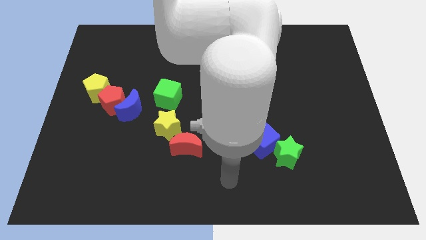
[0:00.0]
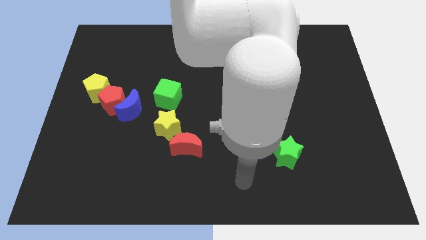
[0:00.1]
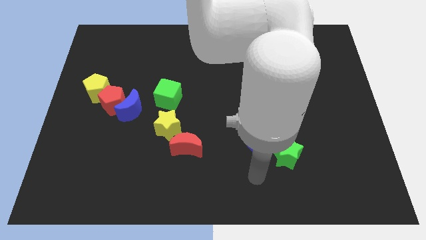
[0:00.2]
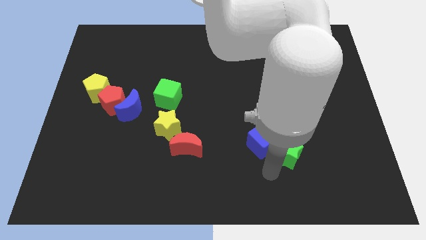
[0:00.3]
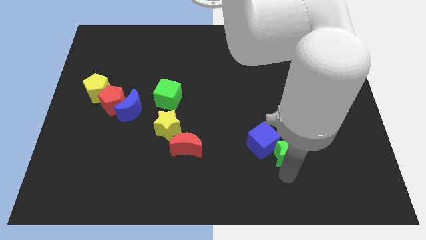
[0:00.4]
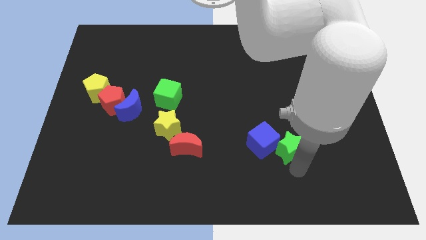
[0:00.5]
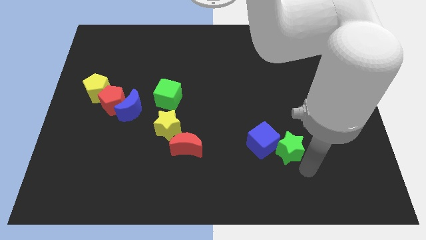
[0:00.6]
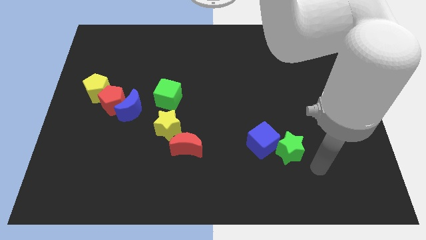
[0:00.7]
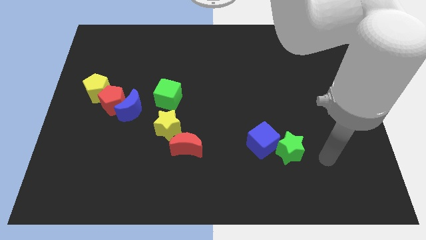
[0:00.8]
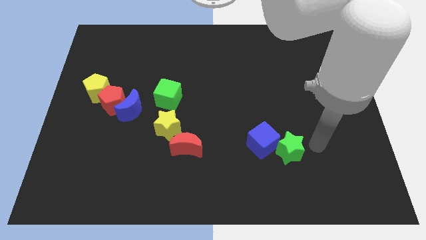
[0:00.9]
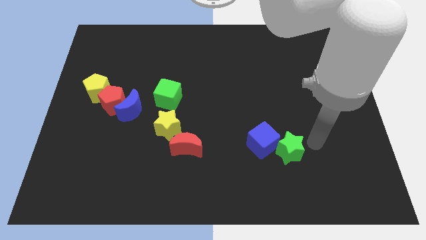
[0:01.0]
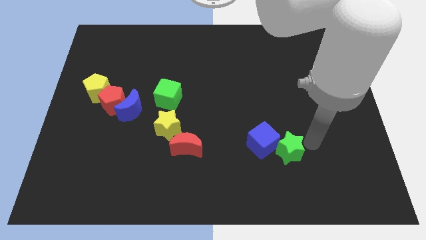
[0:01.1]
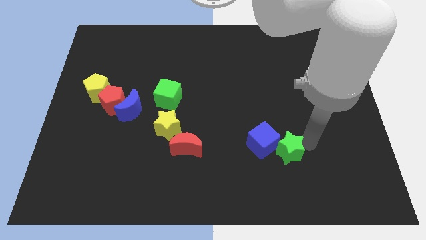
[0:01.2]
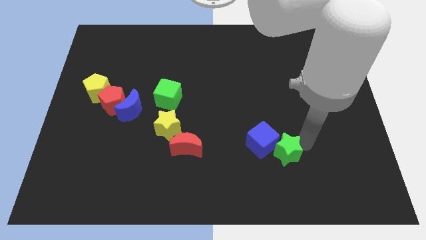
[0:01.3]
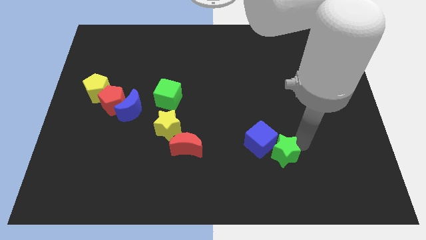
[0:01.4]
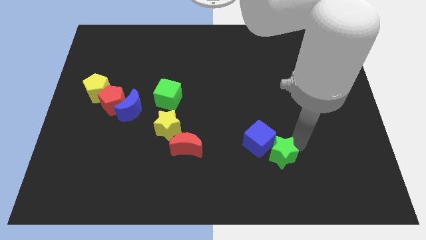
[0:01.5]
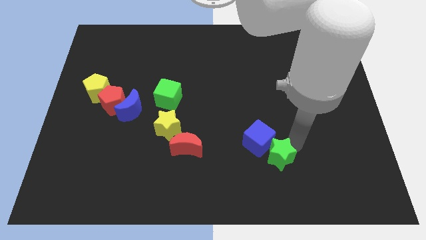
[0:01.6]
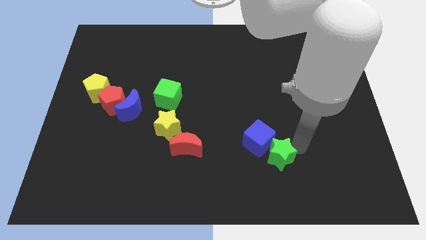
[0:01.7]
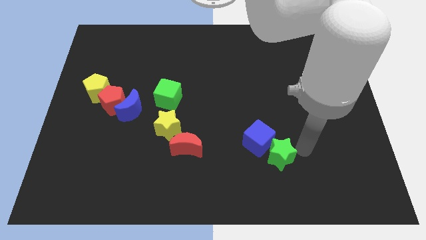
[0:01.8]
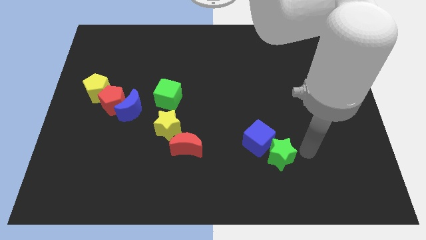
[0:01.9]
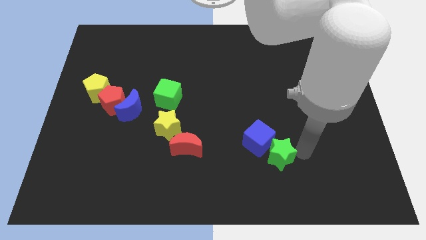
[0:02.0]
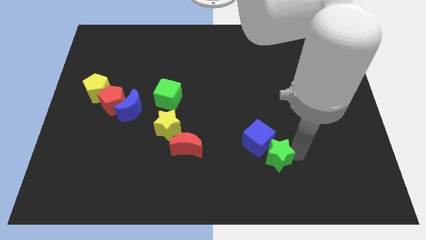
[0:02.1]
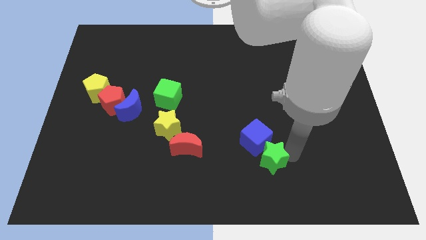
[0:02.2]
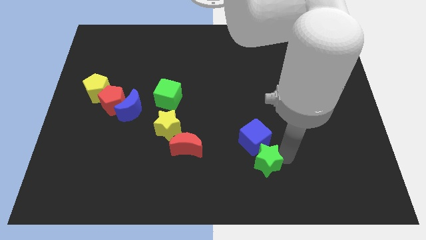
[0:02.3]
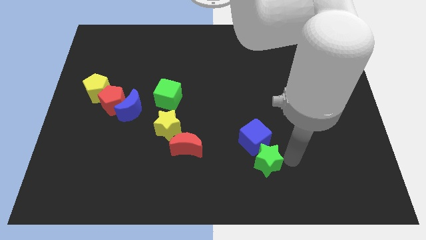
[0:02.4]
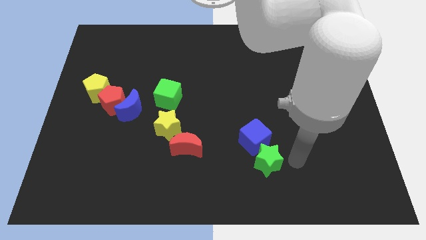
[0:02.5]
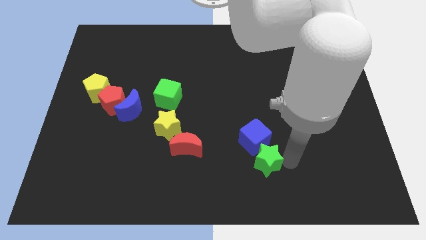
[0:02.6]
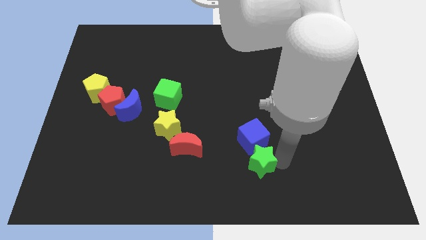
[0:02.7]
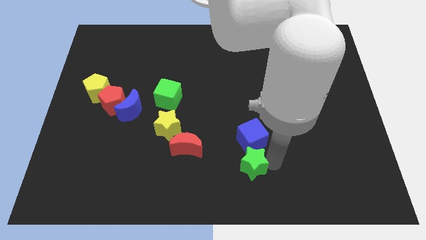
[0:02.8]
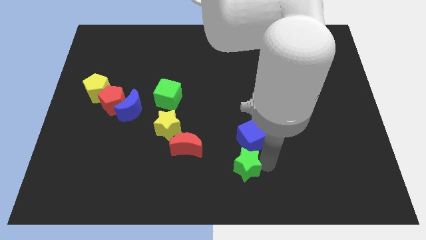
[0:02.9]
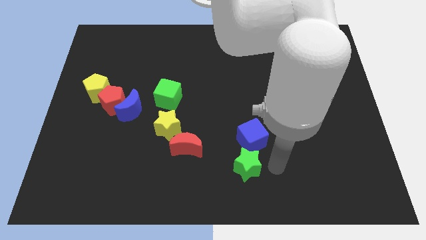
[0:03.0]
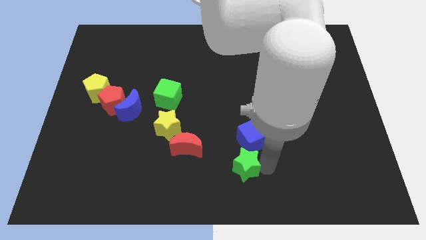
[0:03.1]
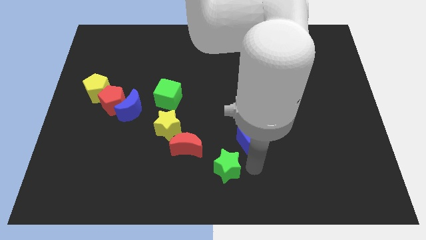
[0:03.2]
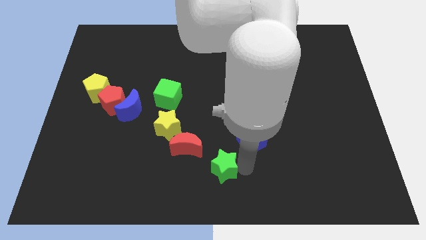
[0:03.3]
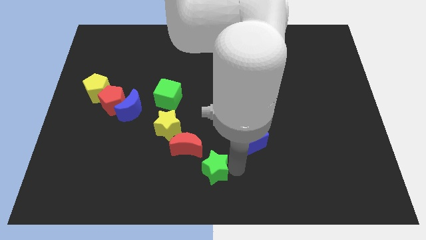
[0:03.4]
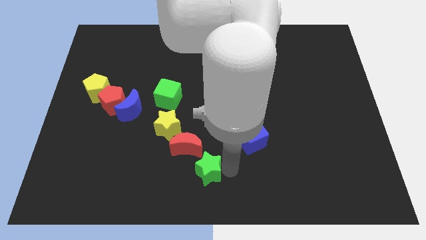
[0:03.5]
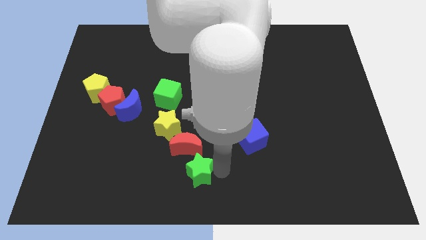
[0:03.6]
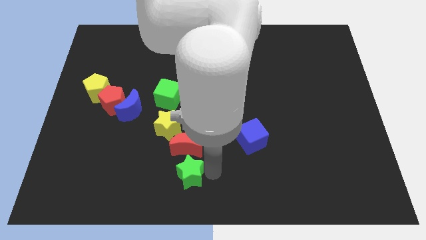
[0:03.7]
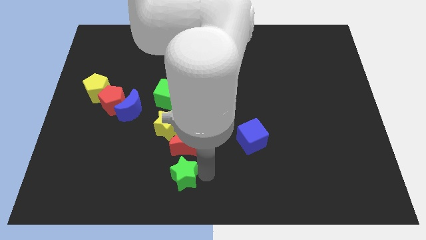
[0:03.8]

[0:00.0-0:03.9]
move the green star left

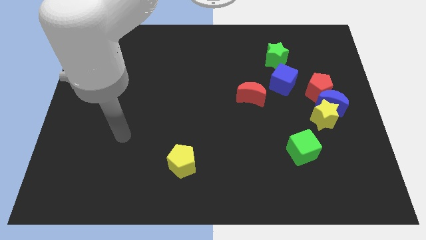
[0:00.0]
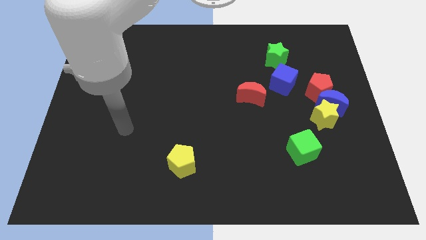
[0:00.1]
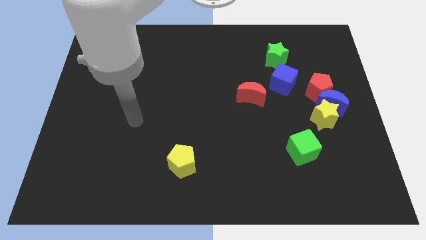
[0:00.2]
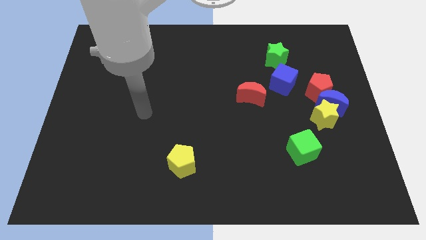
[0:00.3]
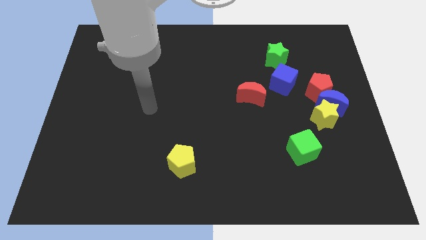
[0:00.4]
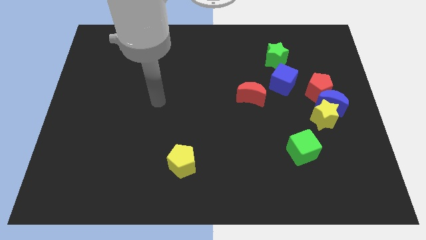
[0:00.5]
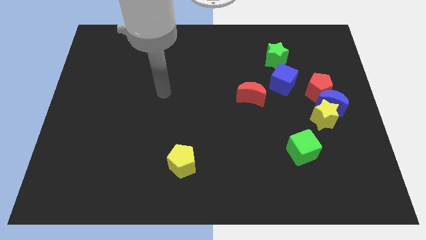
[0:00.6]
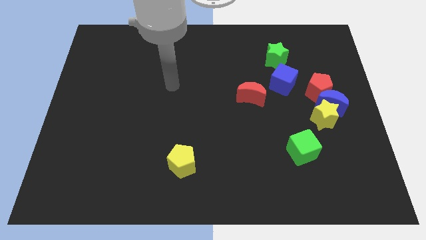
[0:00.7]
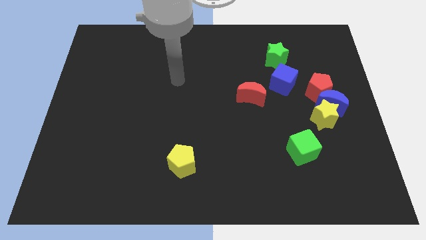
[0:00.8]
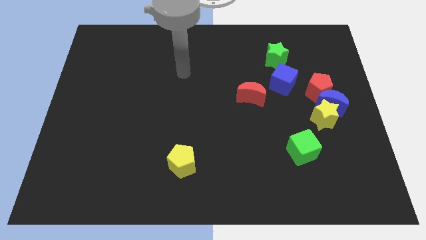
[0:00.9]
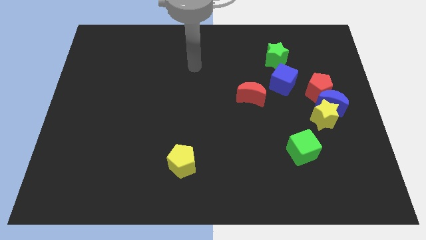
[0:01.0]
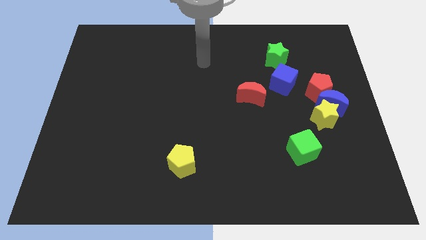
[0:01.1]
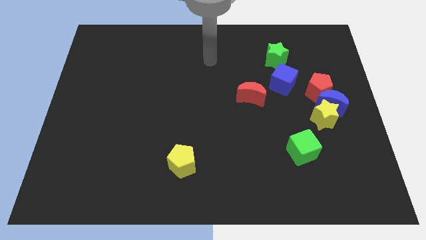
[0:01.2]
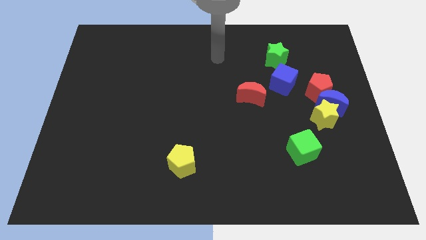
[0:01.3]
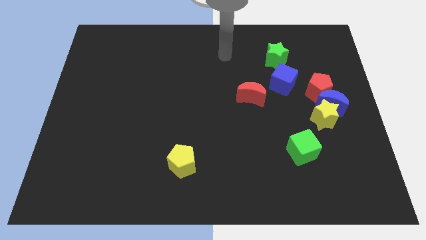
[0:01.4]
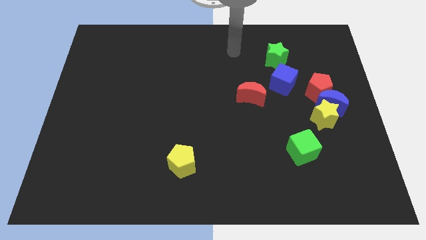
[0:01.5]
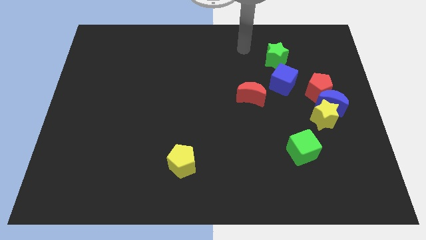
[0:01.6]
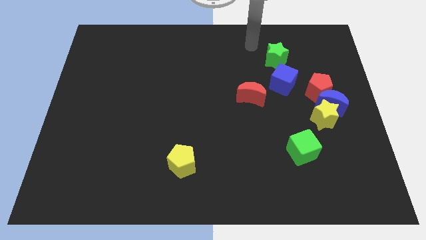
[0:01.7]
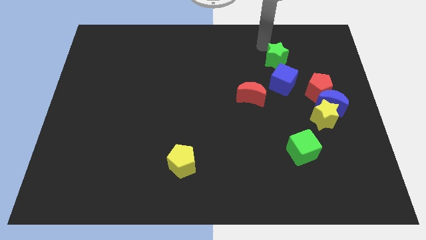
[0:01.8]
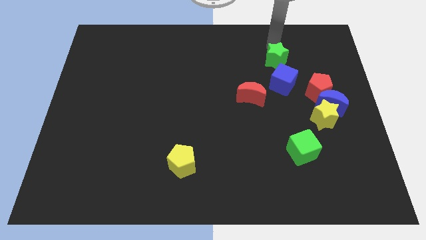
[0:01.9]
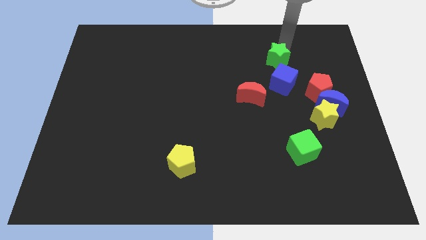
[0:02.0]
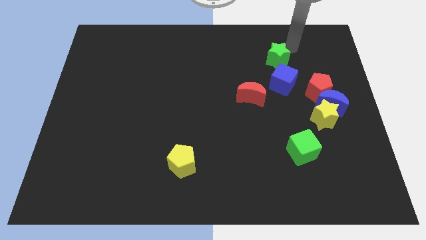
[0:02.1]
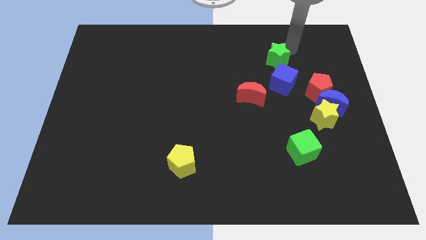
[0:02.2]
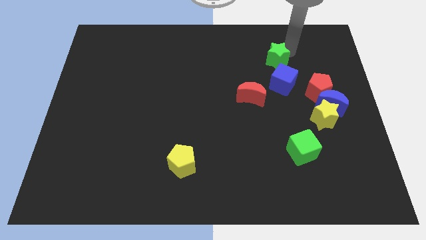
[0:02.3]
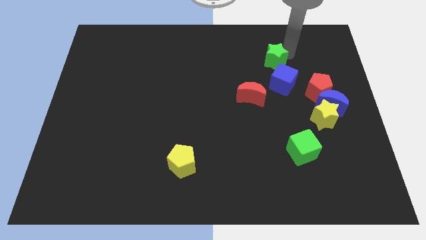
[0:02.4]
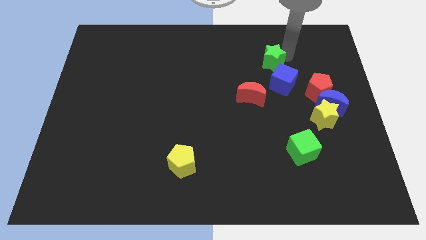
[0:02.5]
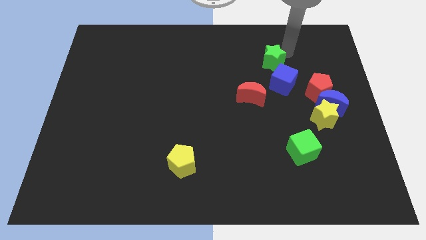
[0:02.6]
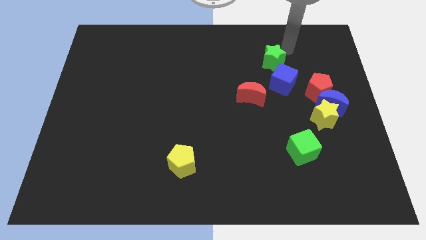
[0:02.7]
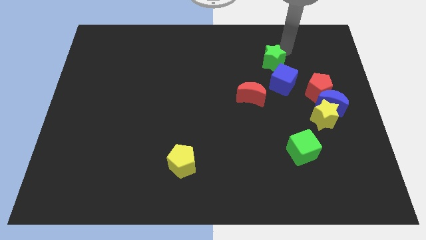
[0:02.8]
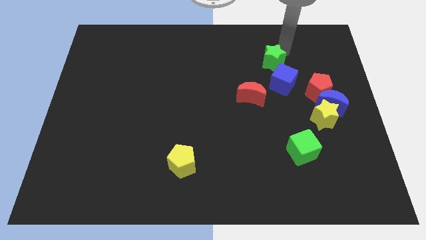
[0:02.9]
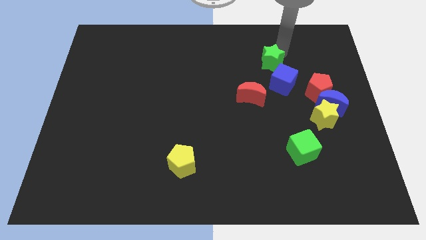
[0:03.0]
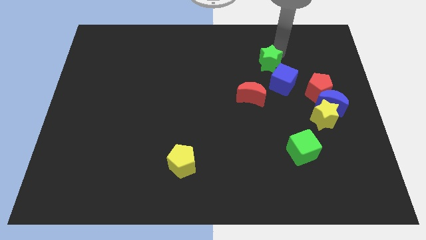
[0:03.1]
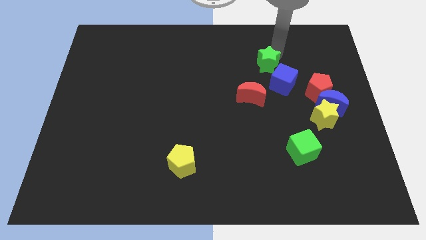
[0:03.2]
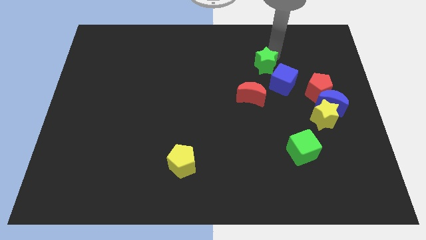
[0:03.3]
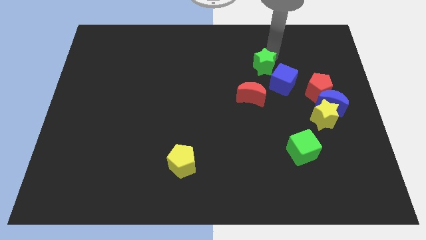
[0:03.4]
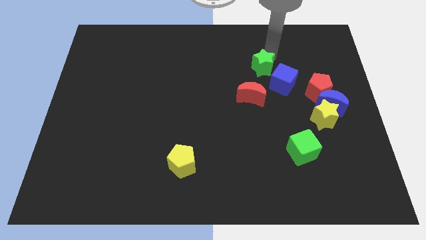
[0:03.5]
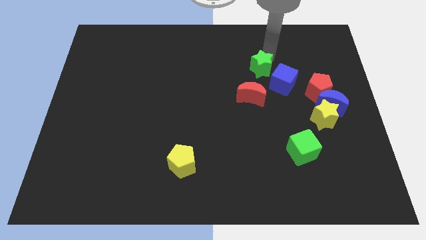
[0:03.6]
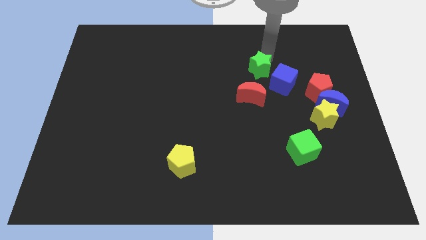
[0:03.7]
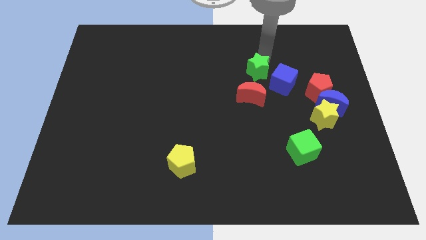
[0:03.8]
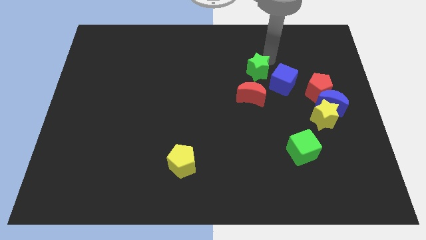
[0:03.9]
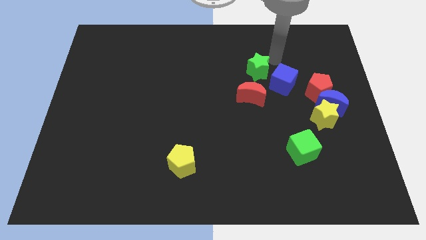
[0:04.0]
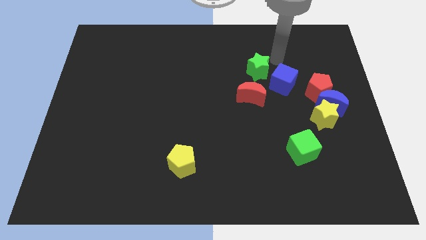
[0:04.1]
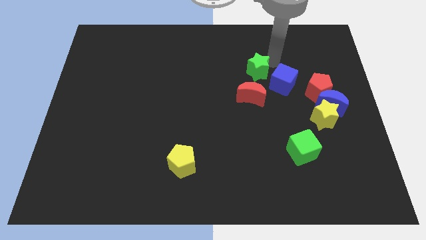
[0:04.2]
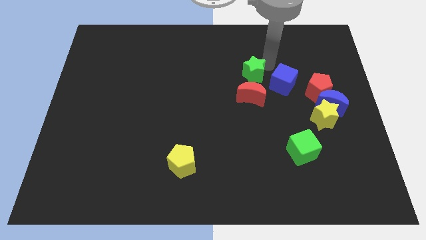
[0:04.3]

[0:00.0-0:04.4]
move the green star somewhat down and to the left diagonally

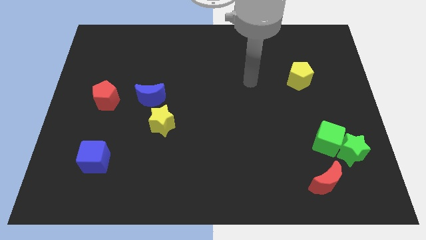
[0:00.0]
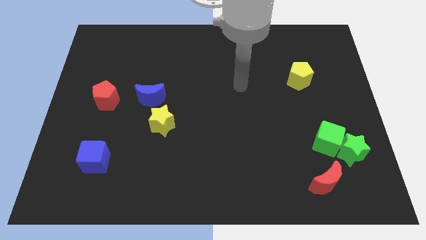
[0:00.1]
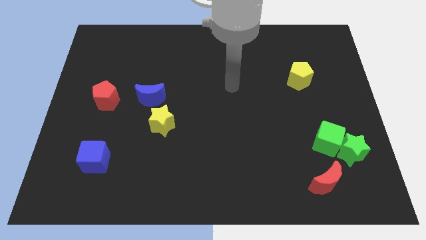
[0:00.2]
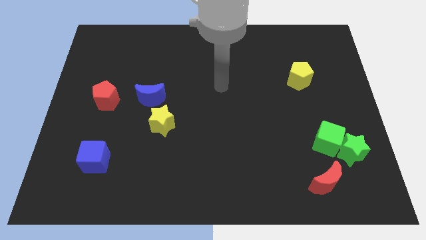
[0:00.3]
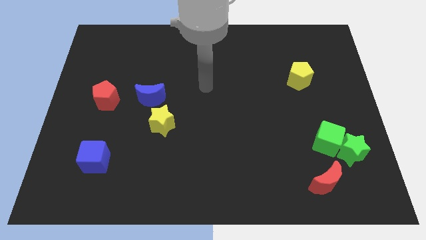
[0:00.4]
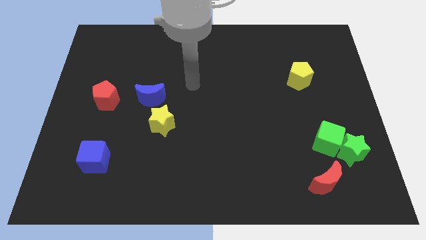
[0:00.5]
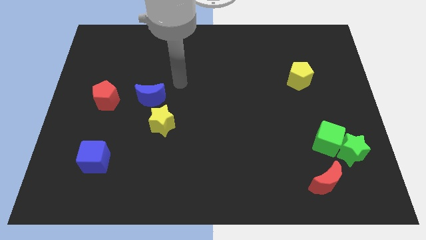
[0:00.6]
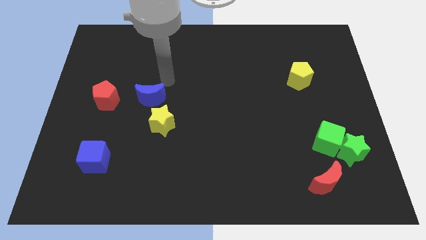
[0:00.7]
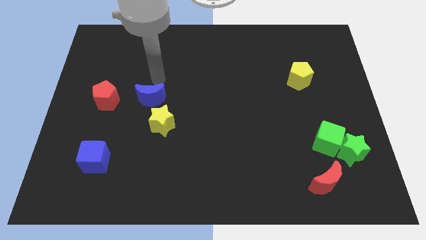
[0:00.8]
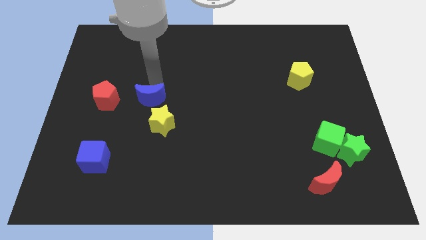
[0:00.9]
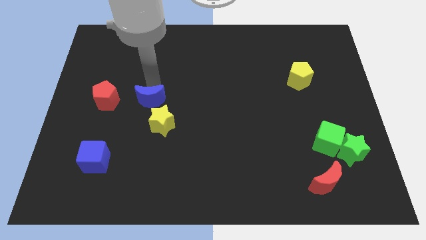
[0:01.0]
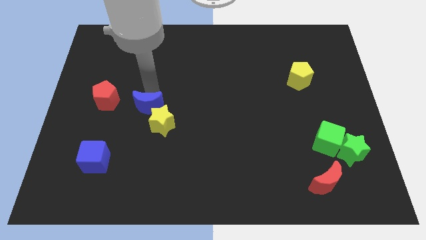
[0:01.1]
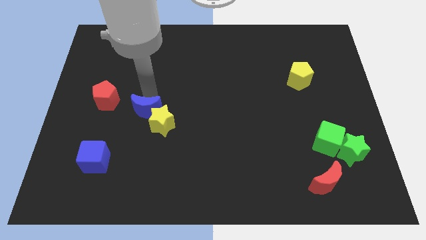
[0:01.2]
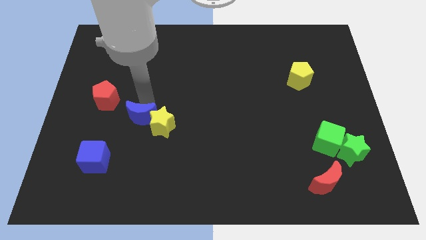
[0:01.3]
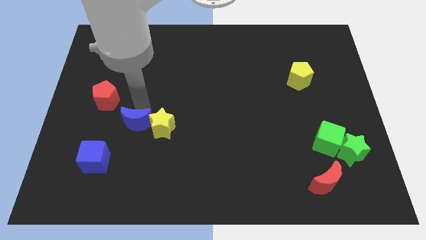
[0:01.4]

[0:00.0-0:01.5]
move the blue moon downwards a bit
